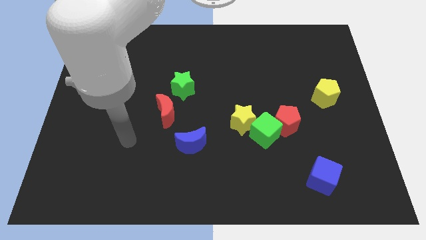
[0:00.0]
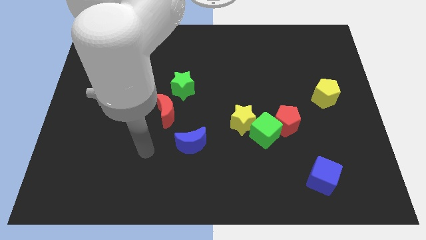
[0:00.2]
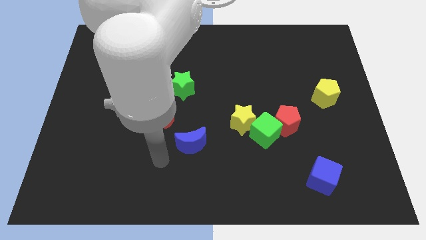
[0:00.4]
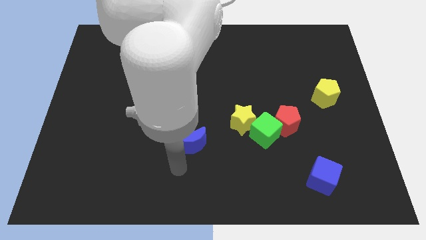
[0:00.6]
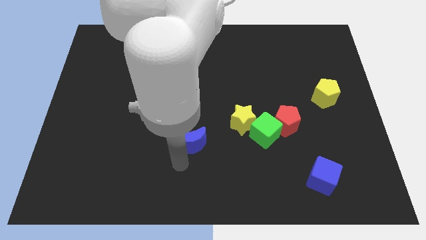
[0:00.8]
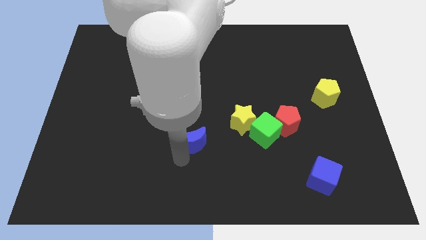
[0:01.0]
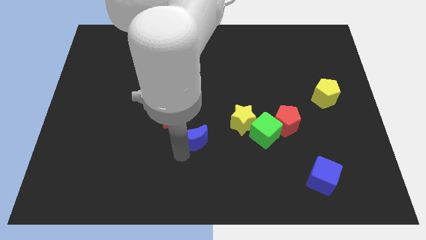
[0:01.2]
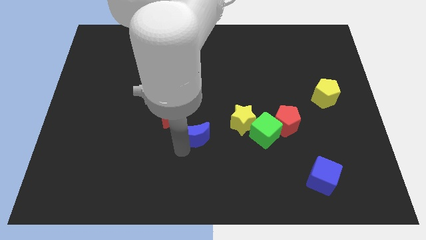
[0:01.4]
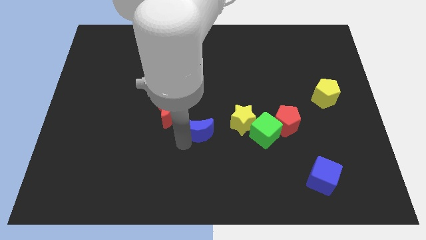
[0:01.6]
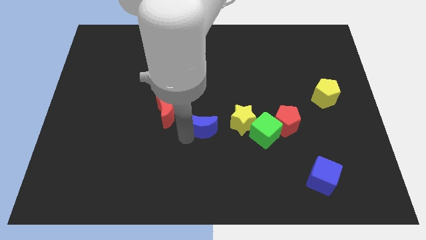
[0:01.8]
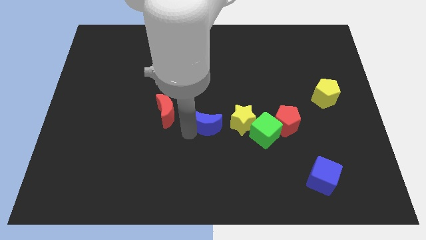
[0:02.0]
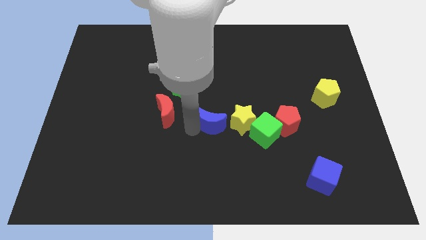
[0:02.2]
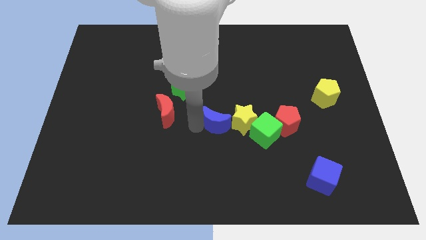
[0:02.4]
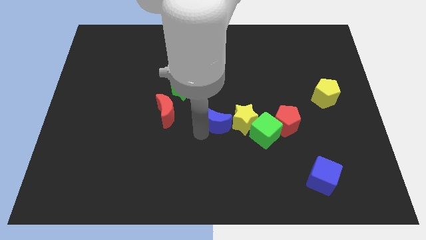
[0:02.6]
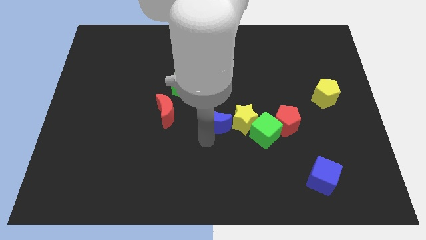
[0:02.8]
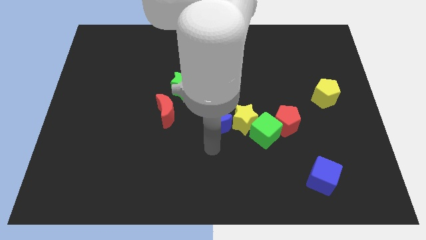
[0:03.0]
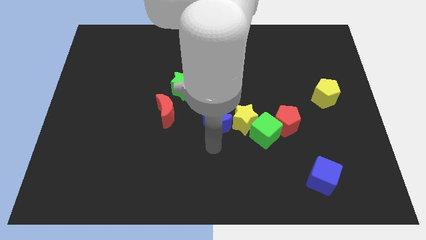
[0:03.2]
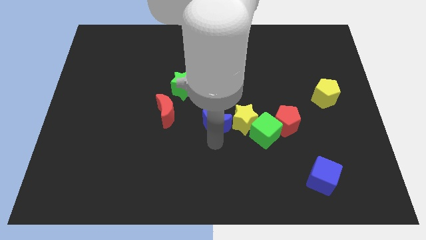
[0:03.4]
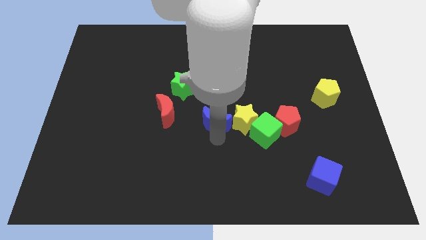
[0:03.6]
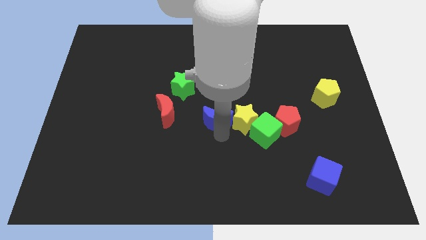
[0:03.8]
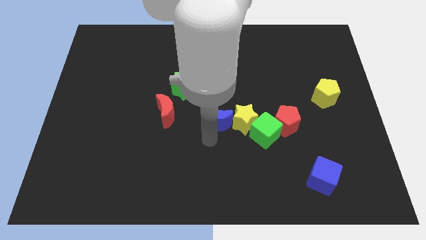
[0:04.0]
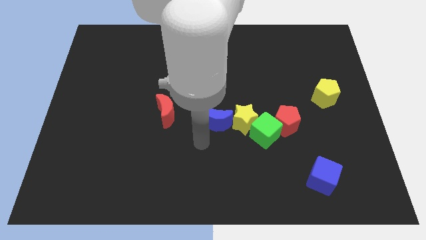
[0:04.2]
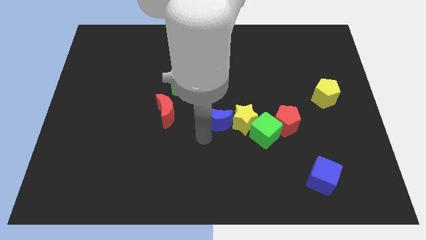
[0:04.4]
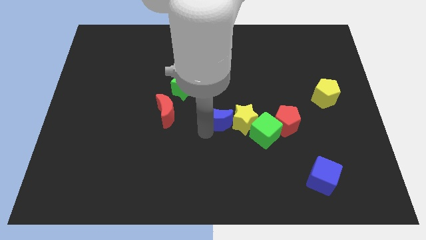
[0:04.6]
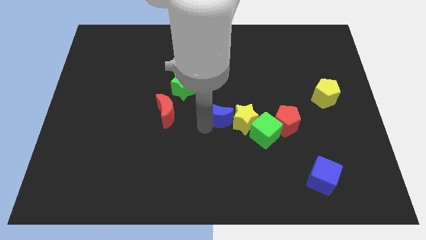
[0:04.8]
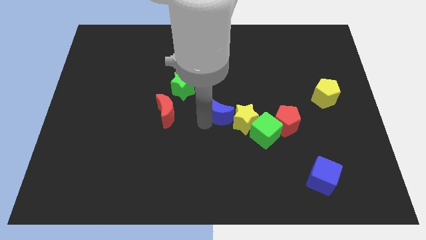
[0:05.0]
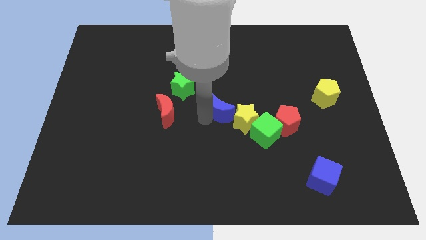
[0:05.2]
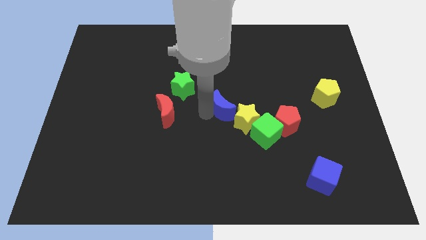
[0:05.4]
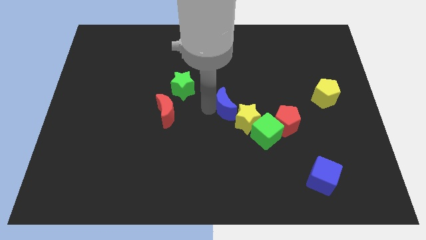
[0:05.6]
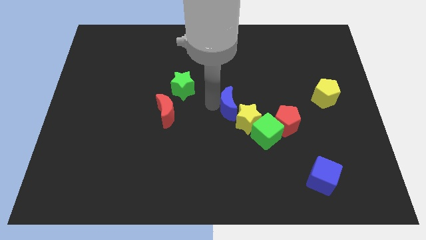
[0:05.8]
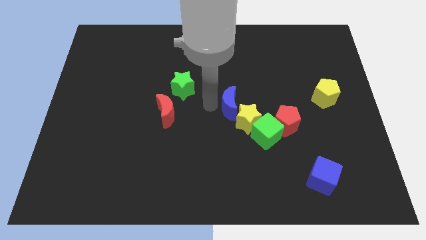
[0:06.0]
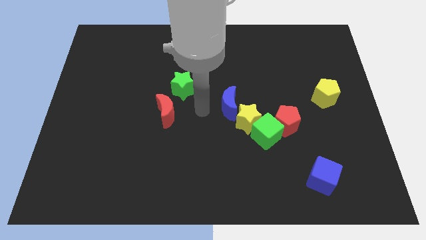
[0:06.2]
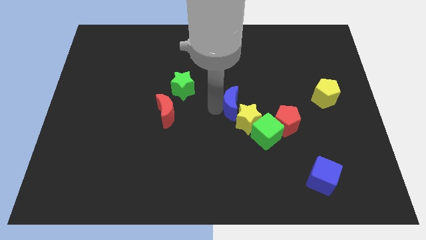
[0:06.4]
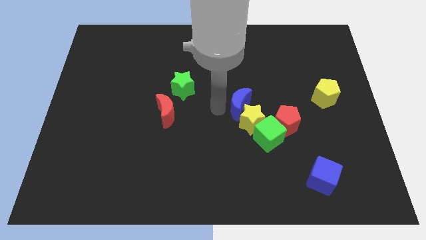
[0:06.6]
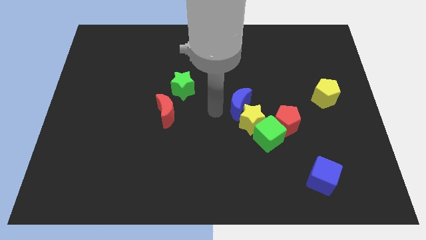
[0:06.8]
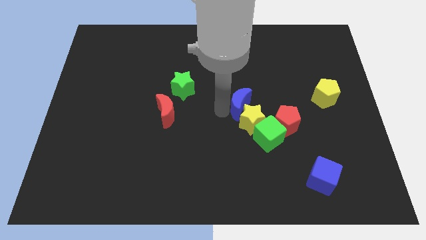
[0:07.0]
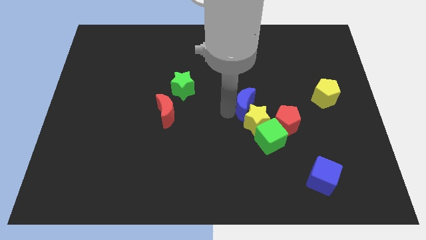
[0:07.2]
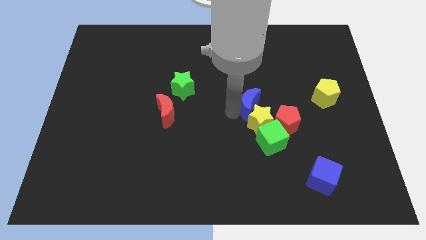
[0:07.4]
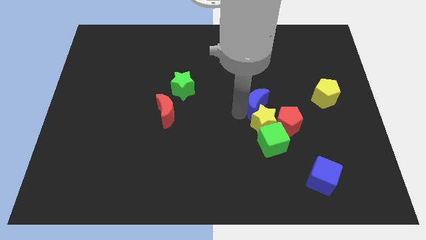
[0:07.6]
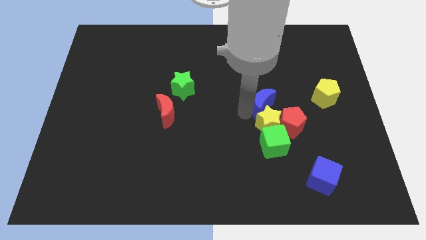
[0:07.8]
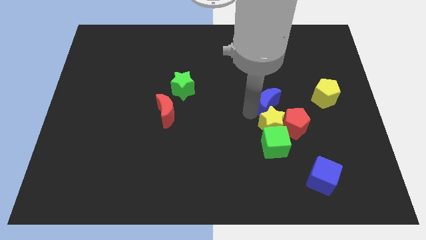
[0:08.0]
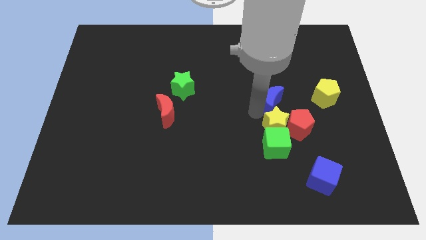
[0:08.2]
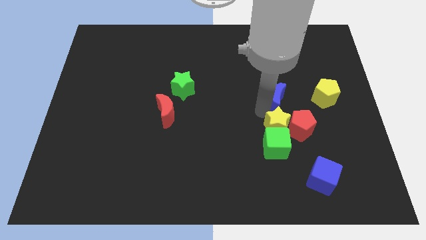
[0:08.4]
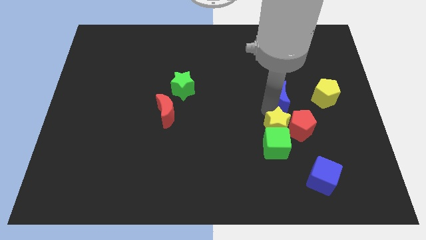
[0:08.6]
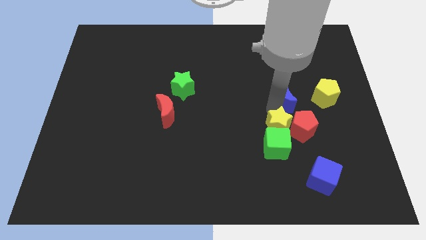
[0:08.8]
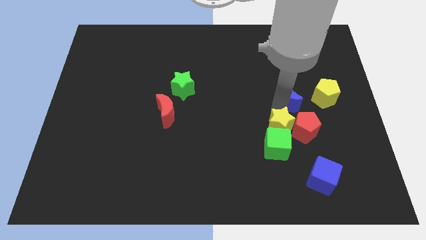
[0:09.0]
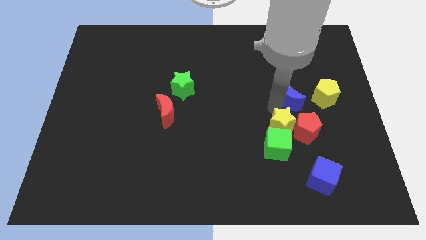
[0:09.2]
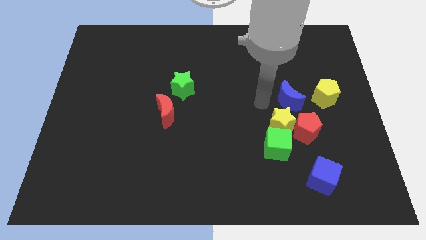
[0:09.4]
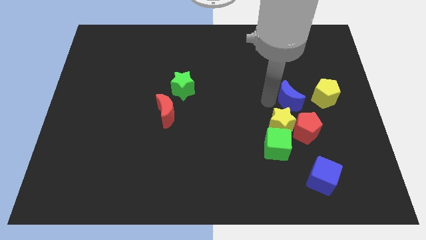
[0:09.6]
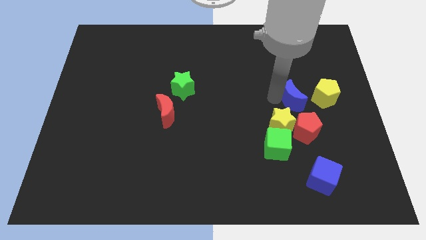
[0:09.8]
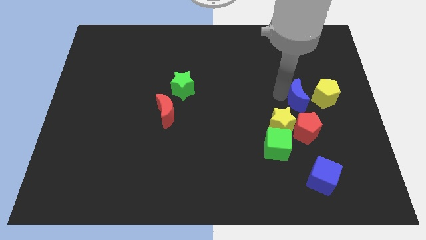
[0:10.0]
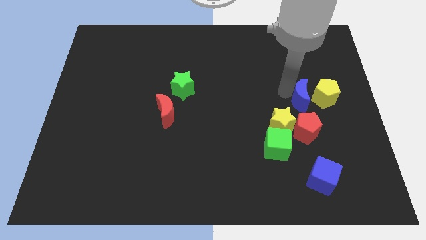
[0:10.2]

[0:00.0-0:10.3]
slide the blue moon towards the yellow pentagon

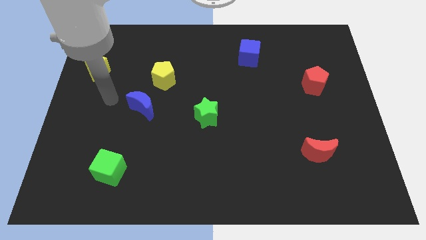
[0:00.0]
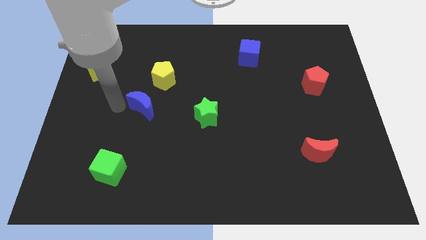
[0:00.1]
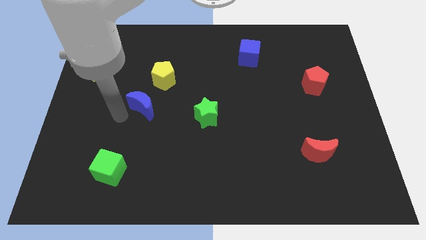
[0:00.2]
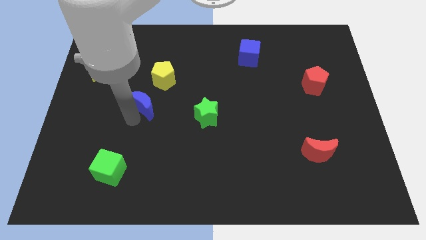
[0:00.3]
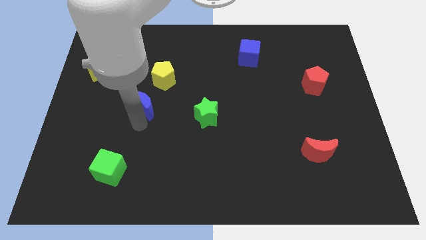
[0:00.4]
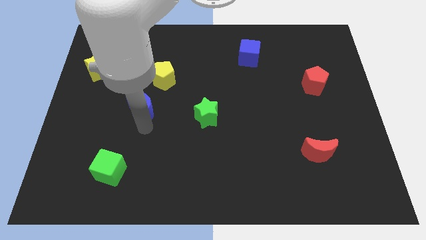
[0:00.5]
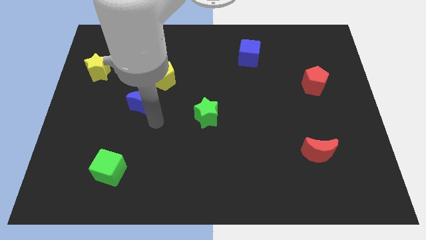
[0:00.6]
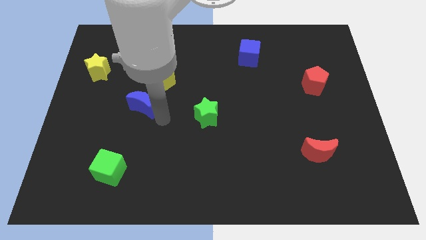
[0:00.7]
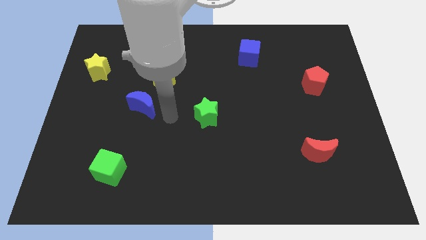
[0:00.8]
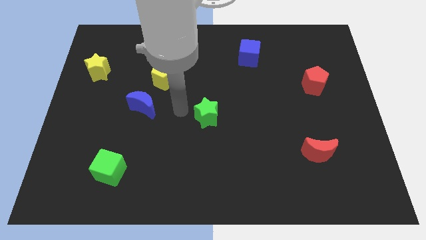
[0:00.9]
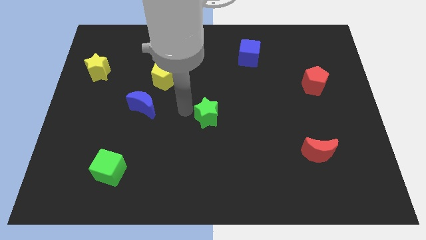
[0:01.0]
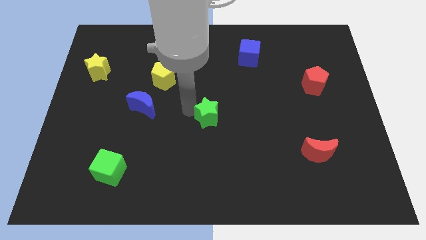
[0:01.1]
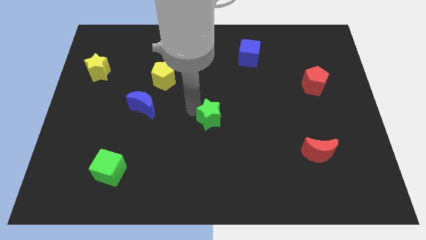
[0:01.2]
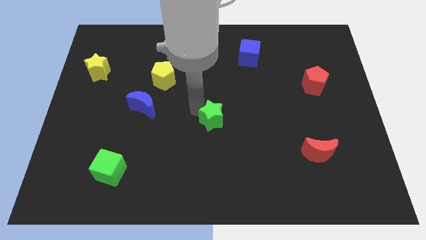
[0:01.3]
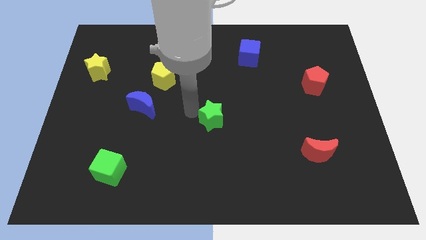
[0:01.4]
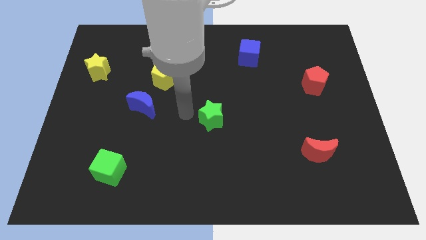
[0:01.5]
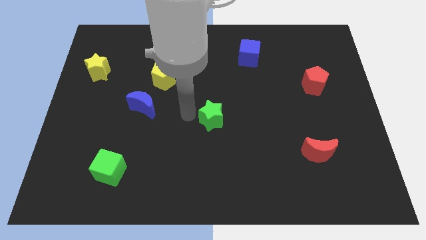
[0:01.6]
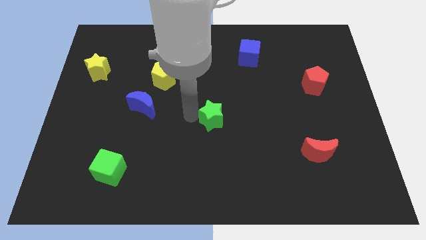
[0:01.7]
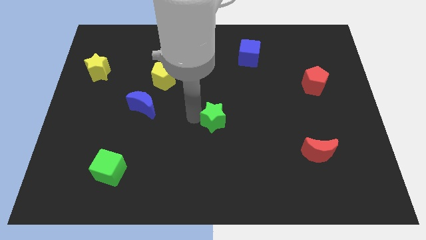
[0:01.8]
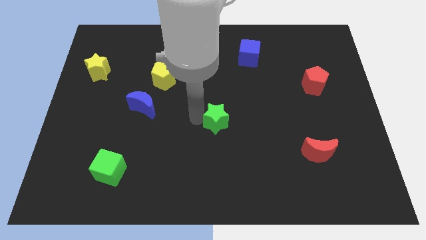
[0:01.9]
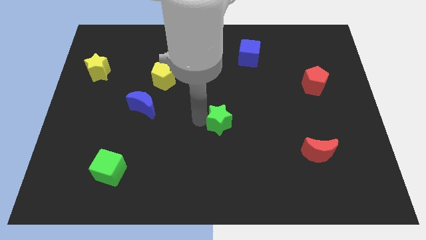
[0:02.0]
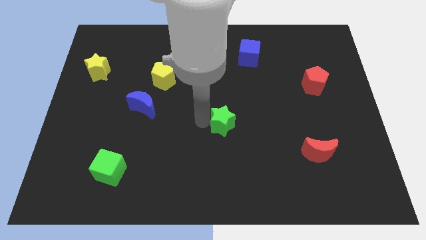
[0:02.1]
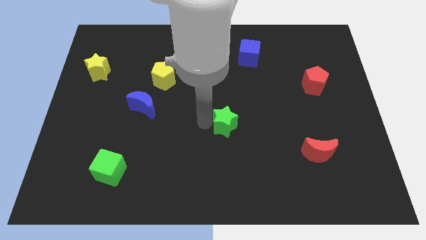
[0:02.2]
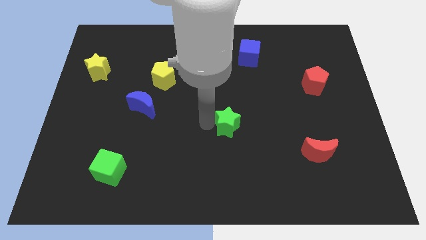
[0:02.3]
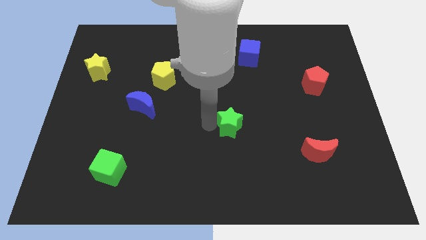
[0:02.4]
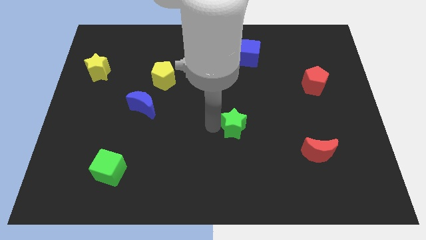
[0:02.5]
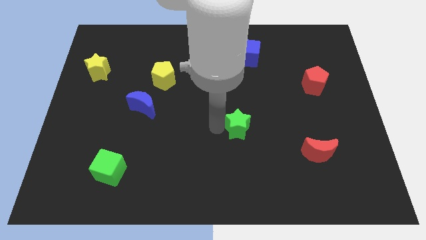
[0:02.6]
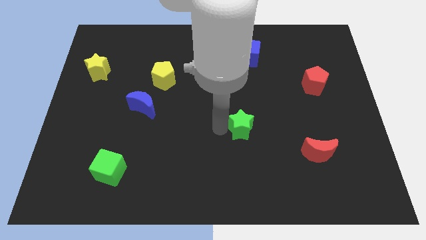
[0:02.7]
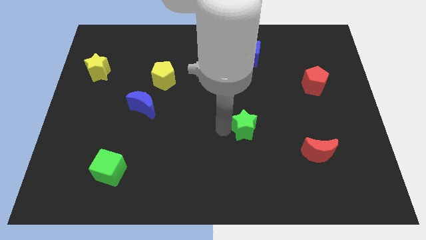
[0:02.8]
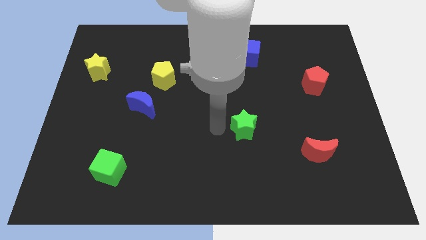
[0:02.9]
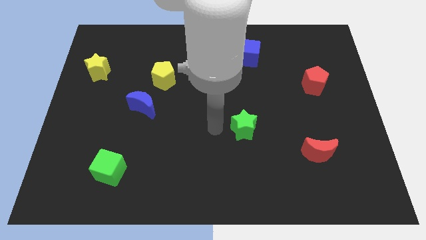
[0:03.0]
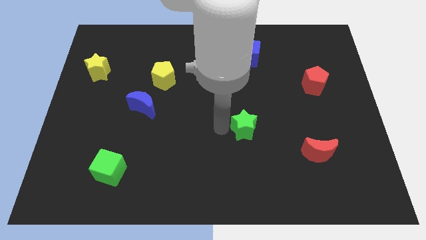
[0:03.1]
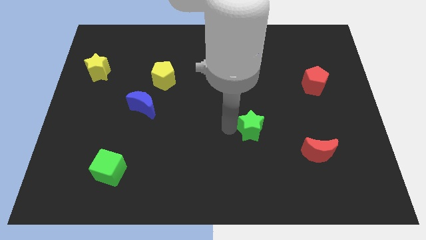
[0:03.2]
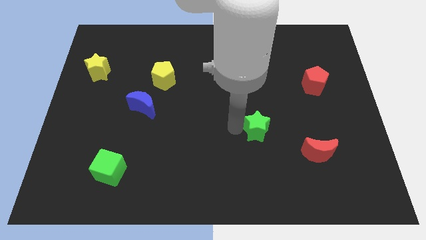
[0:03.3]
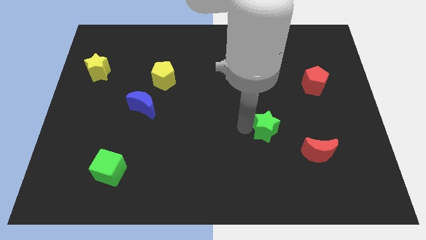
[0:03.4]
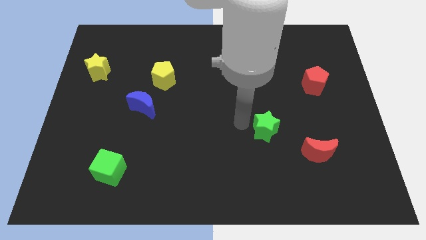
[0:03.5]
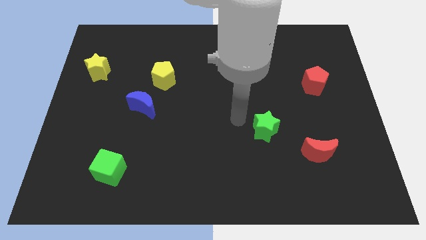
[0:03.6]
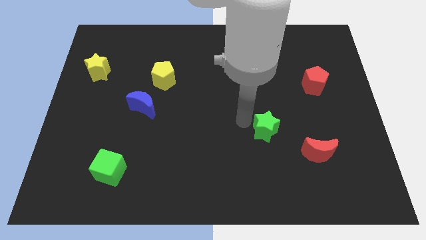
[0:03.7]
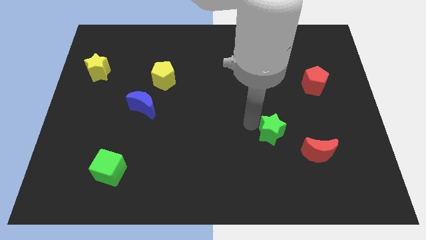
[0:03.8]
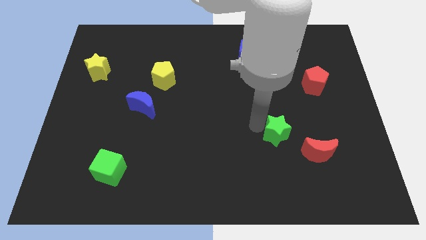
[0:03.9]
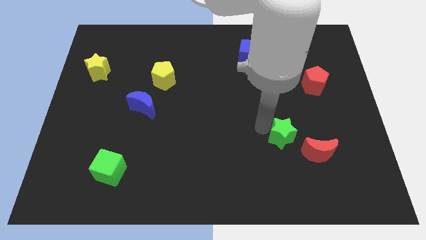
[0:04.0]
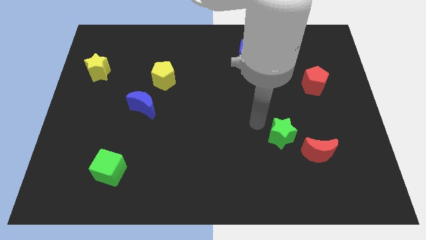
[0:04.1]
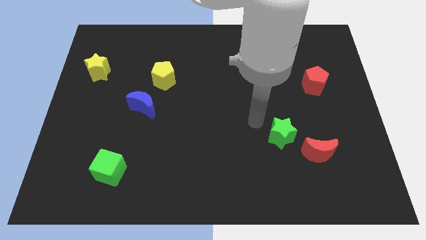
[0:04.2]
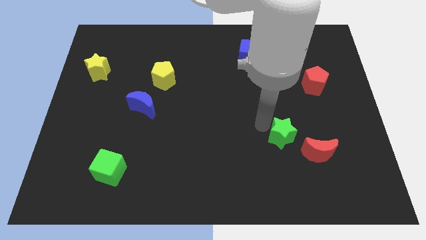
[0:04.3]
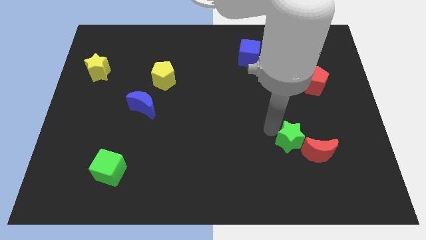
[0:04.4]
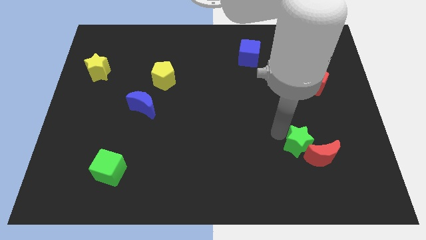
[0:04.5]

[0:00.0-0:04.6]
slide the green star close to the red moon
